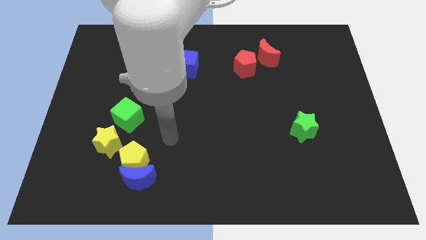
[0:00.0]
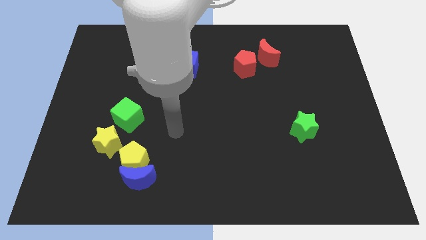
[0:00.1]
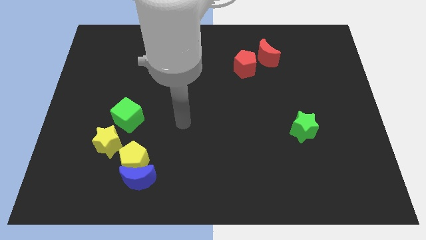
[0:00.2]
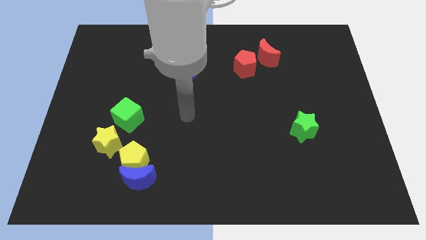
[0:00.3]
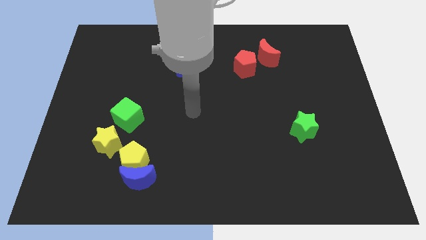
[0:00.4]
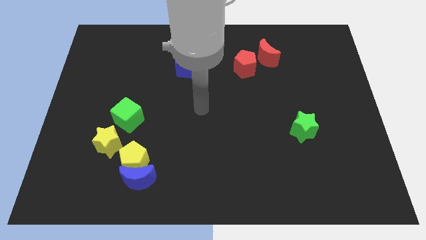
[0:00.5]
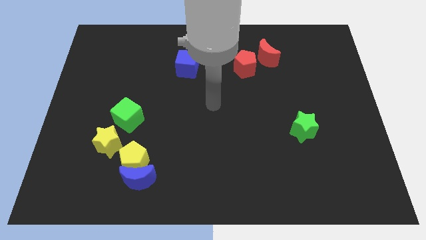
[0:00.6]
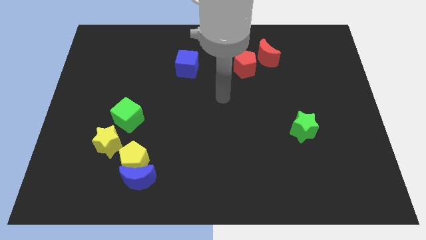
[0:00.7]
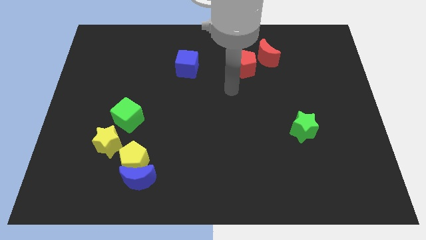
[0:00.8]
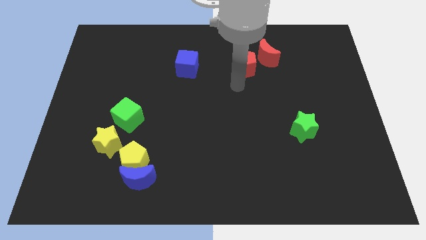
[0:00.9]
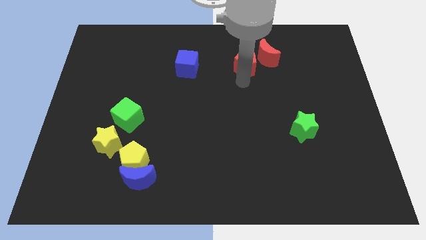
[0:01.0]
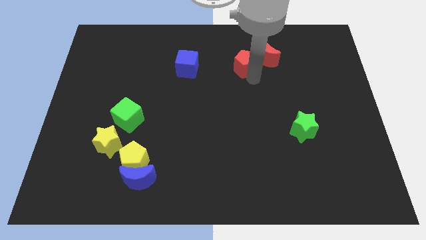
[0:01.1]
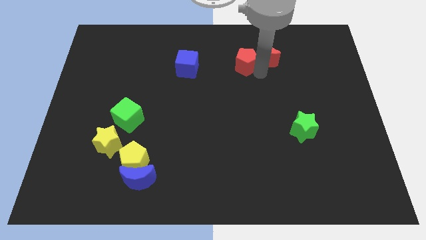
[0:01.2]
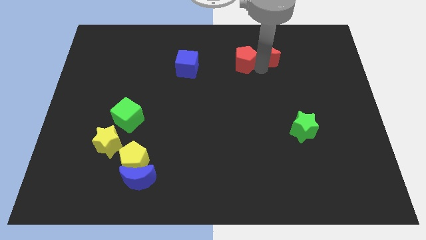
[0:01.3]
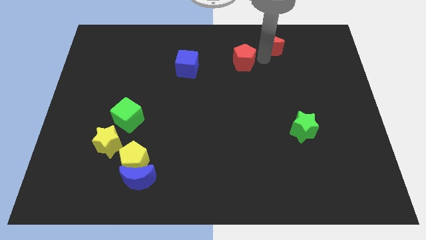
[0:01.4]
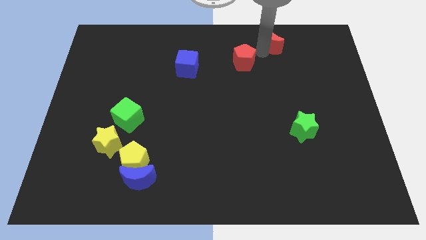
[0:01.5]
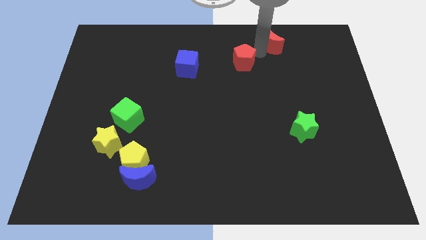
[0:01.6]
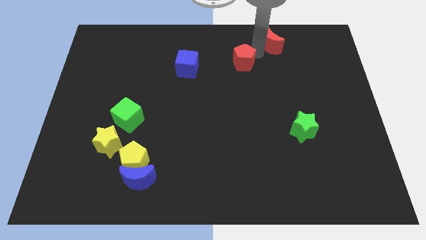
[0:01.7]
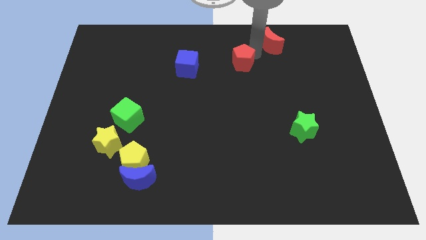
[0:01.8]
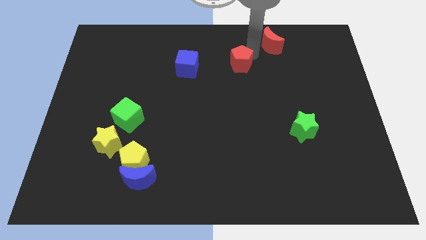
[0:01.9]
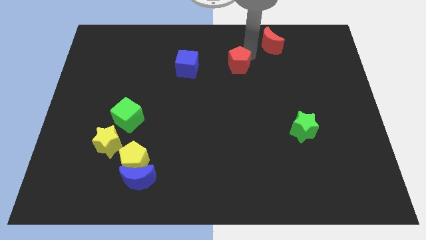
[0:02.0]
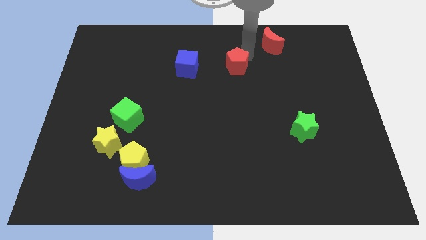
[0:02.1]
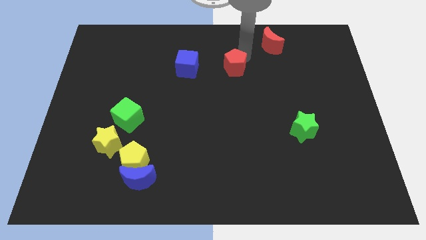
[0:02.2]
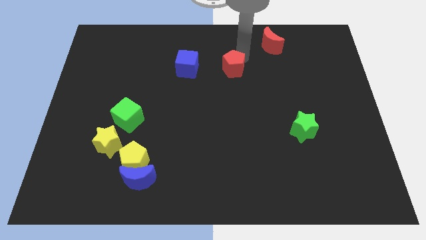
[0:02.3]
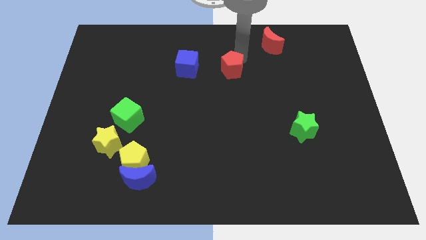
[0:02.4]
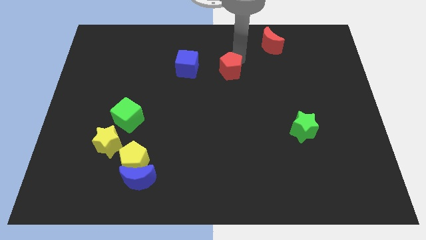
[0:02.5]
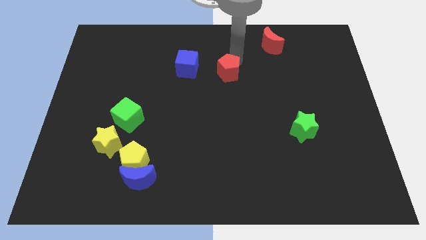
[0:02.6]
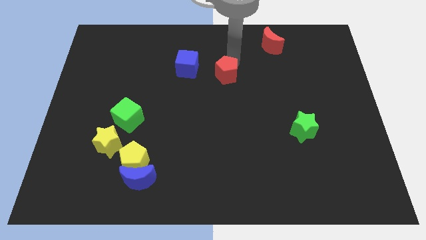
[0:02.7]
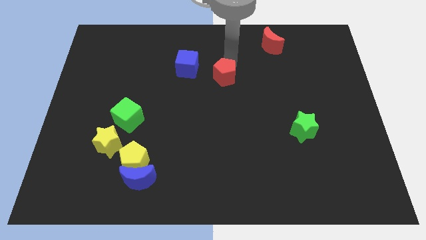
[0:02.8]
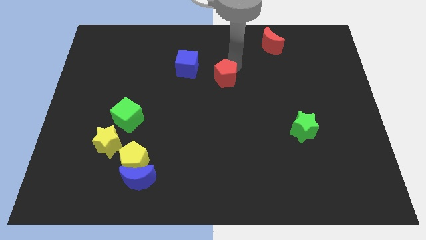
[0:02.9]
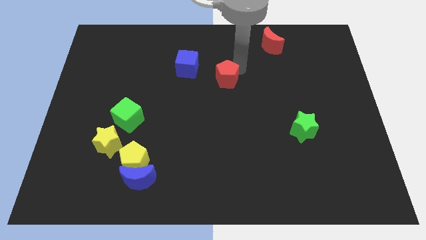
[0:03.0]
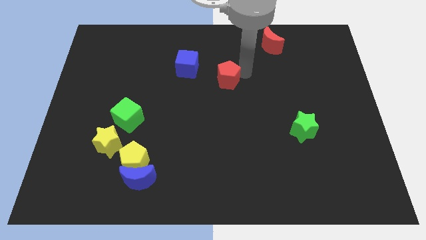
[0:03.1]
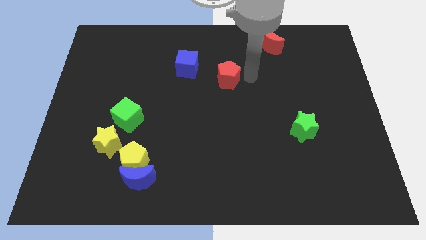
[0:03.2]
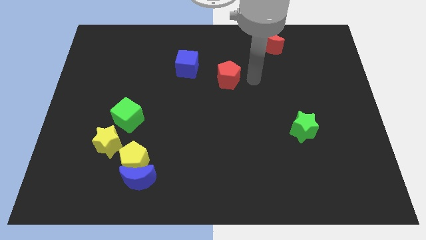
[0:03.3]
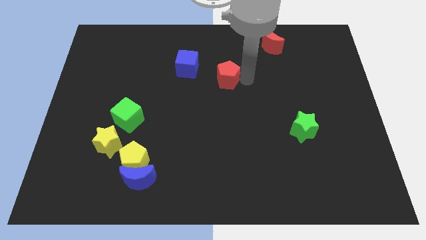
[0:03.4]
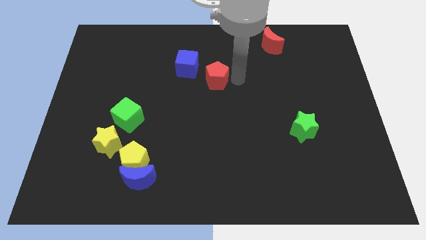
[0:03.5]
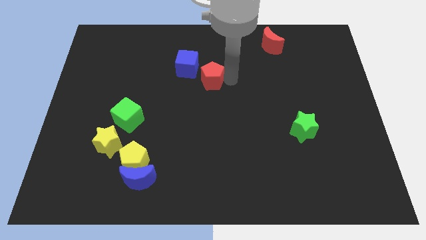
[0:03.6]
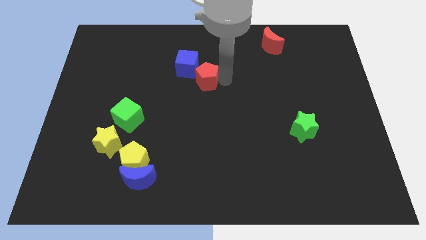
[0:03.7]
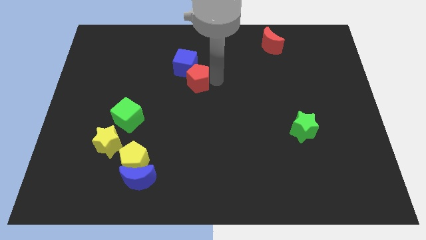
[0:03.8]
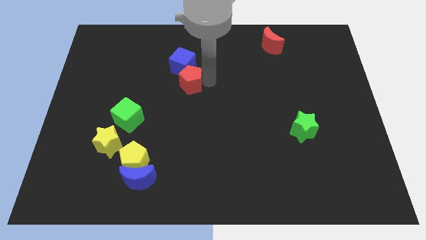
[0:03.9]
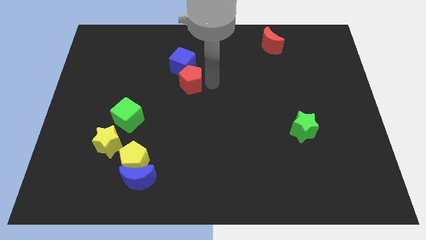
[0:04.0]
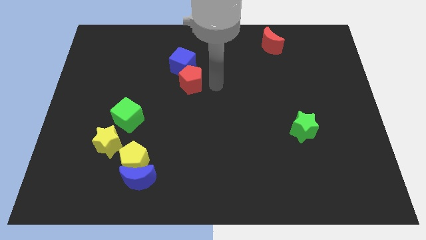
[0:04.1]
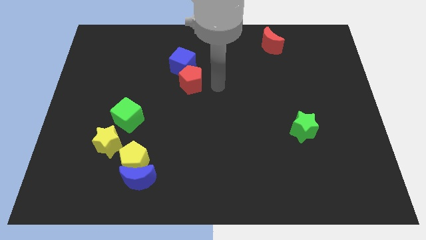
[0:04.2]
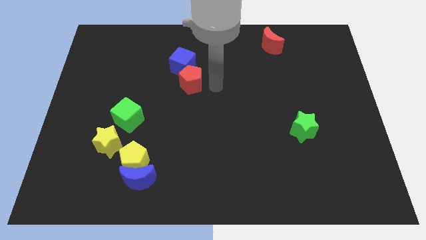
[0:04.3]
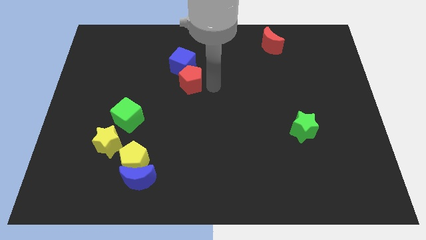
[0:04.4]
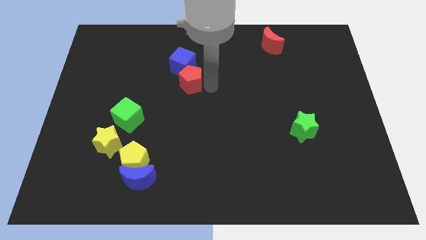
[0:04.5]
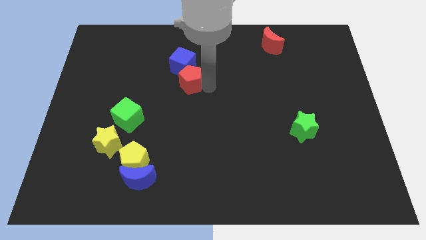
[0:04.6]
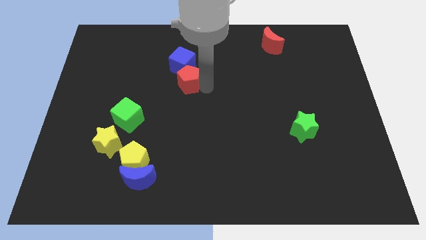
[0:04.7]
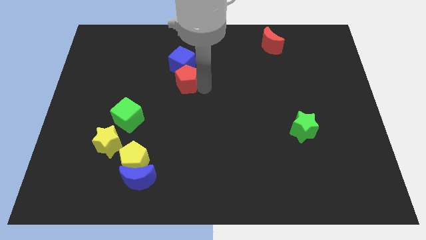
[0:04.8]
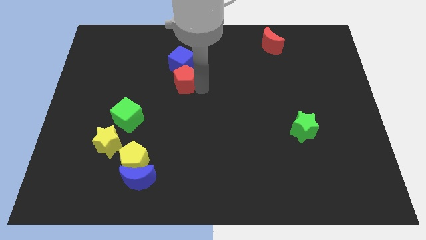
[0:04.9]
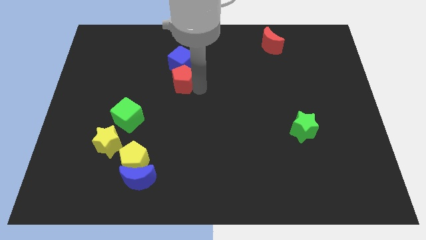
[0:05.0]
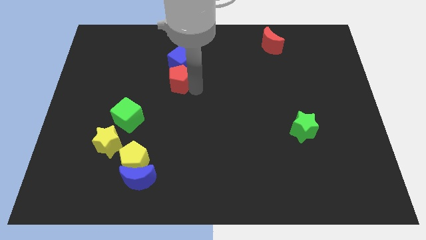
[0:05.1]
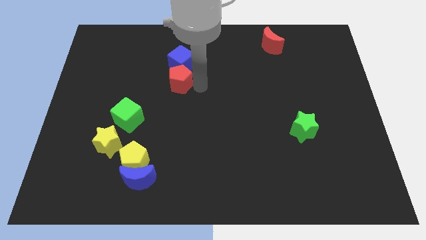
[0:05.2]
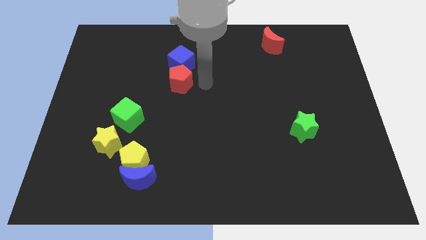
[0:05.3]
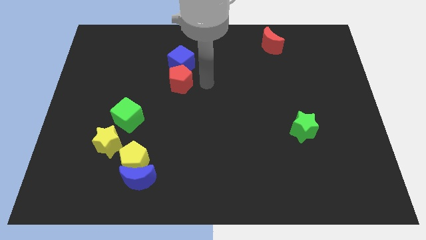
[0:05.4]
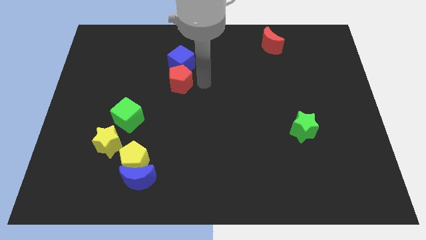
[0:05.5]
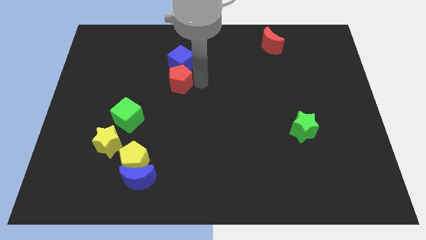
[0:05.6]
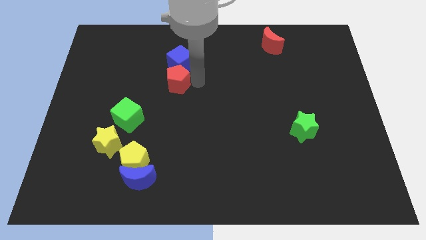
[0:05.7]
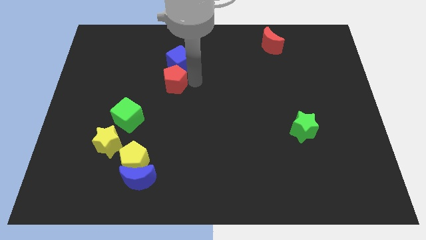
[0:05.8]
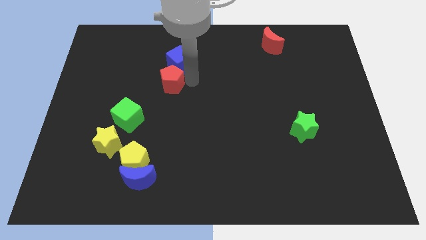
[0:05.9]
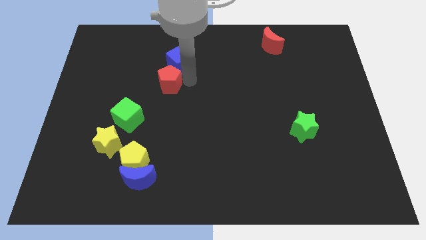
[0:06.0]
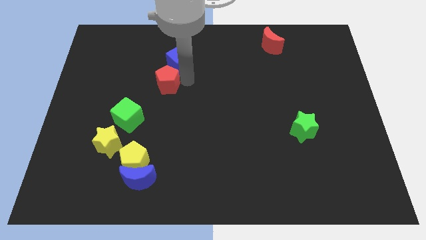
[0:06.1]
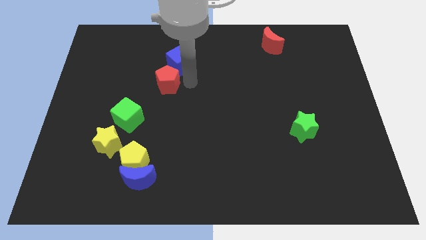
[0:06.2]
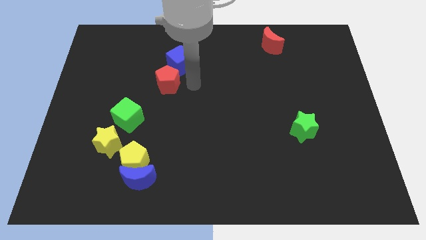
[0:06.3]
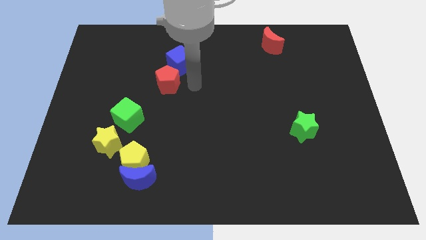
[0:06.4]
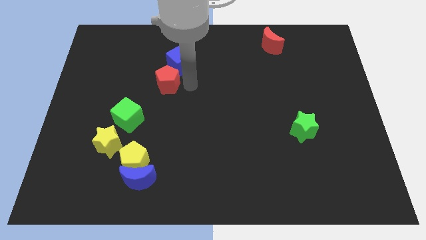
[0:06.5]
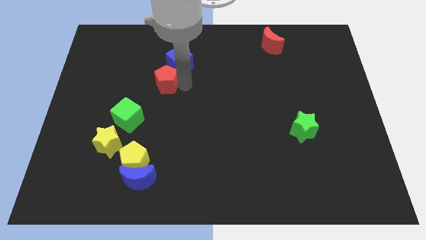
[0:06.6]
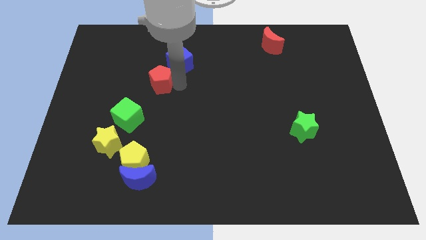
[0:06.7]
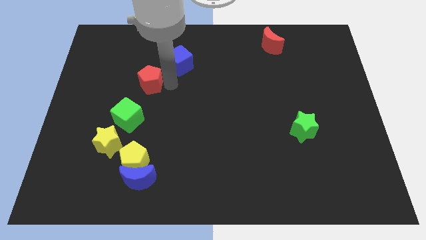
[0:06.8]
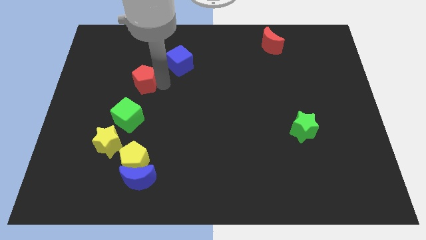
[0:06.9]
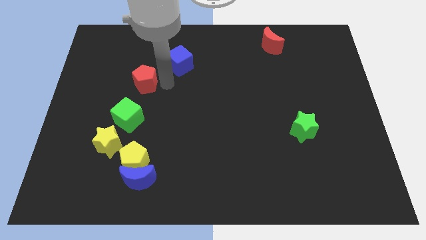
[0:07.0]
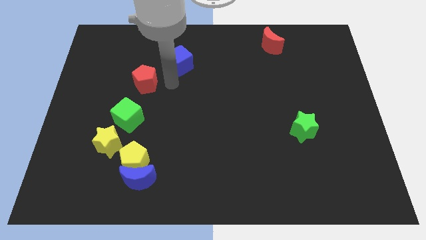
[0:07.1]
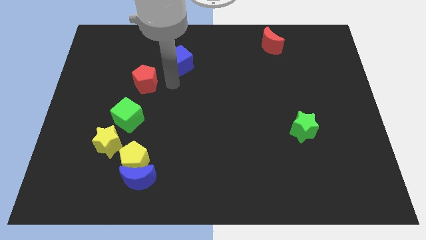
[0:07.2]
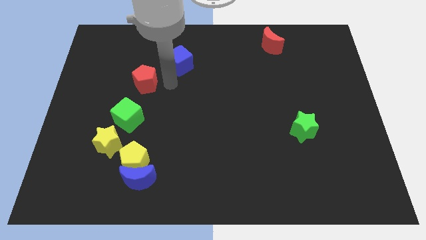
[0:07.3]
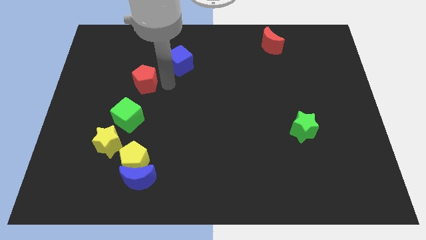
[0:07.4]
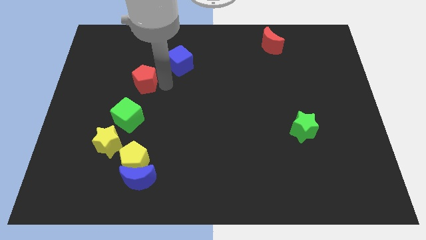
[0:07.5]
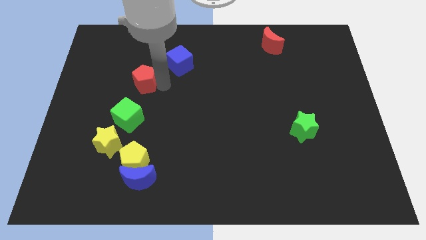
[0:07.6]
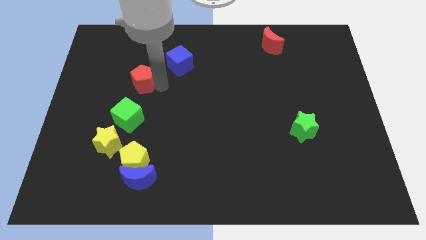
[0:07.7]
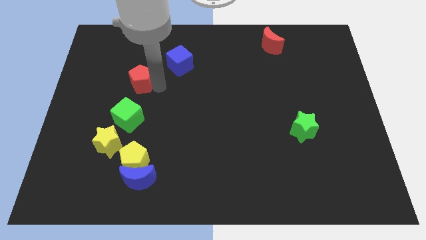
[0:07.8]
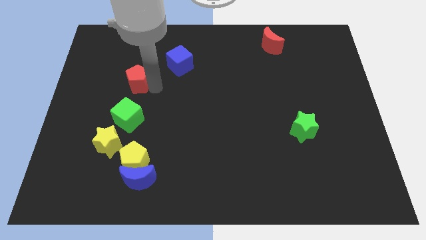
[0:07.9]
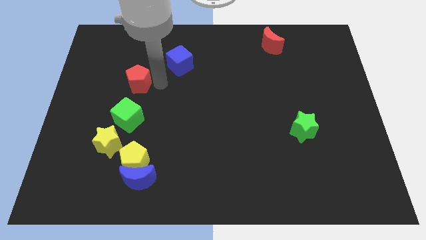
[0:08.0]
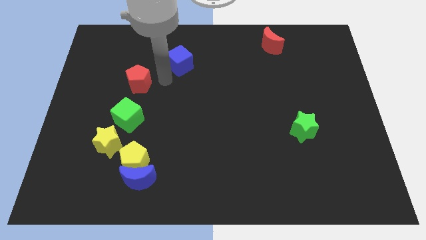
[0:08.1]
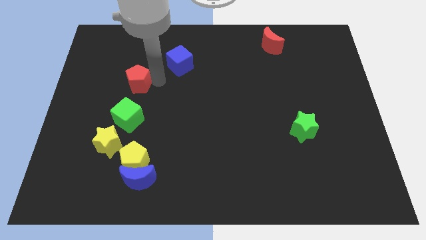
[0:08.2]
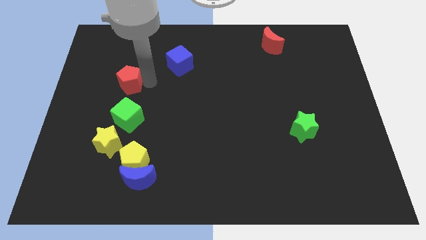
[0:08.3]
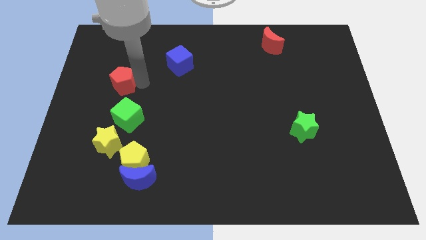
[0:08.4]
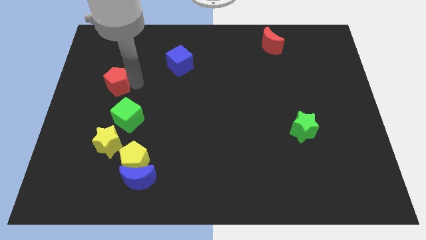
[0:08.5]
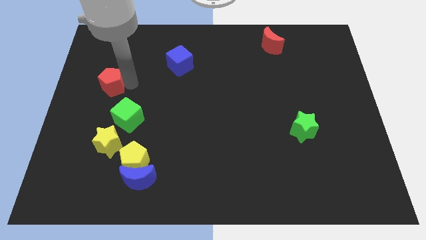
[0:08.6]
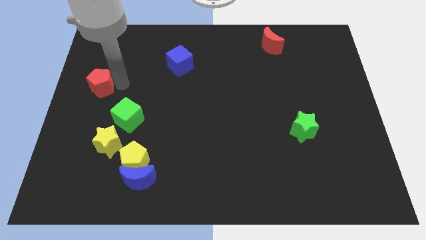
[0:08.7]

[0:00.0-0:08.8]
slide the red pentagon to the left side of the board
